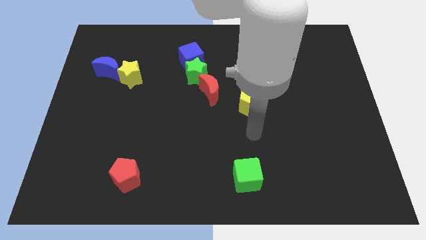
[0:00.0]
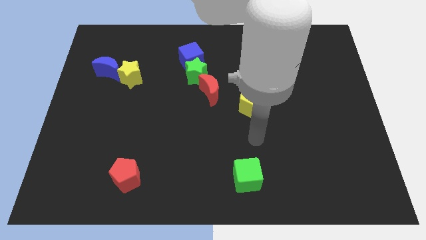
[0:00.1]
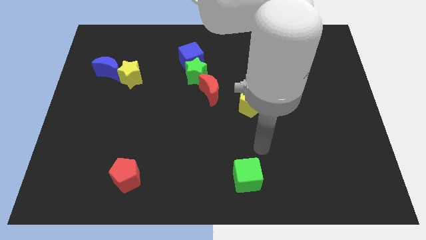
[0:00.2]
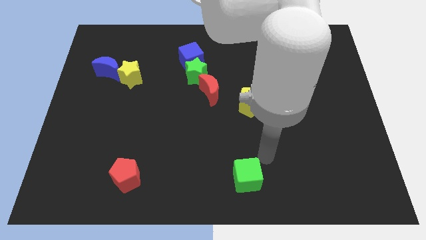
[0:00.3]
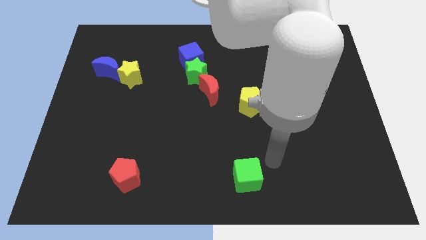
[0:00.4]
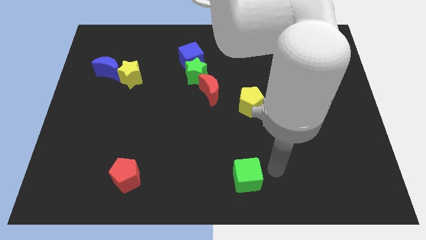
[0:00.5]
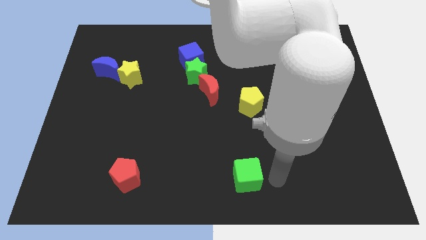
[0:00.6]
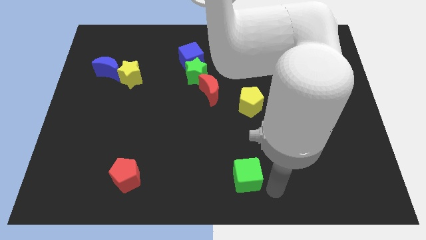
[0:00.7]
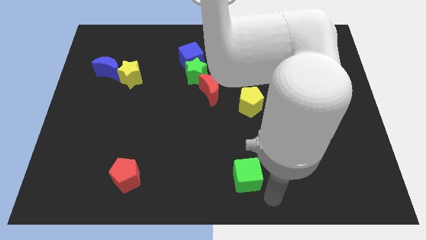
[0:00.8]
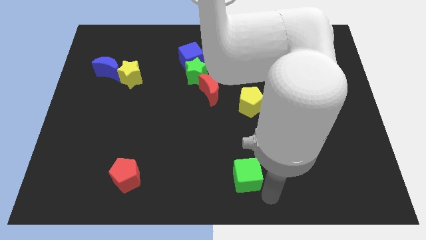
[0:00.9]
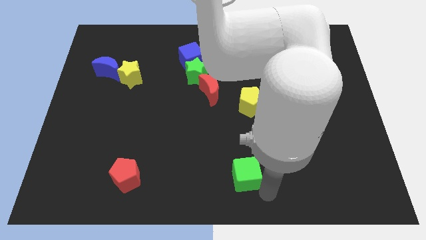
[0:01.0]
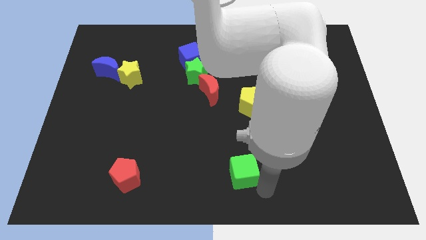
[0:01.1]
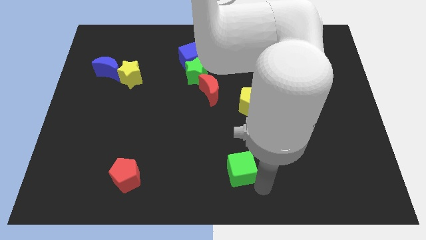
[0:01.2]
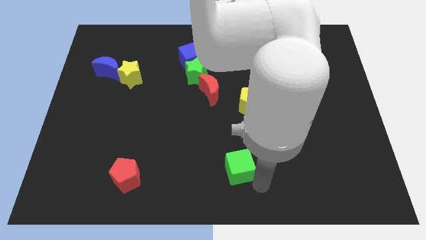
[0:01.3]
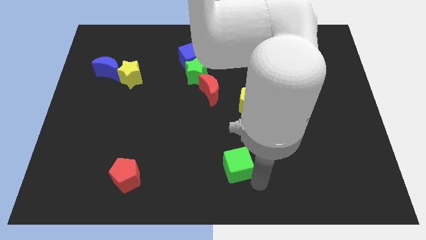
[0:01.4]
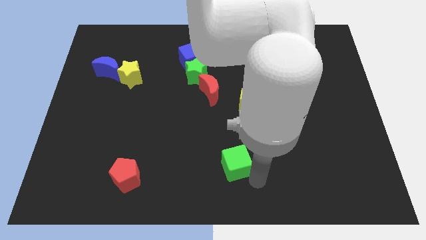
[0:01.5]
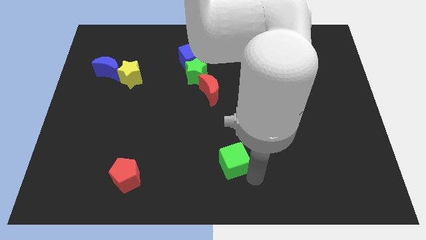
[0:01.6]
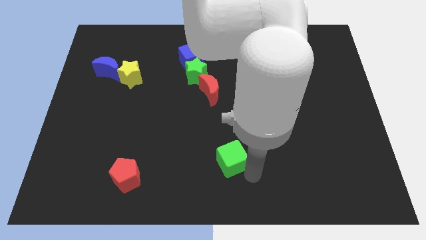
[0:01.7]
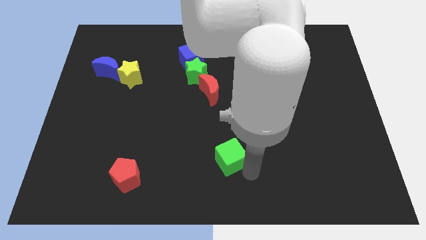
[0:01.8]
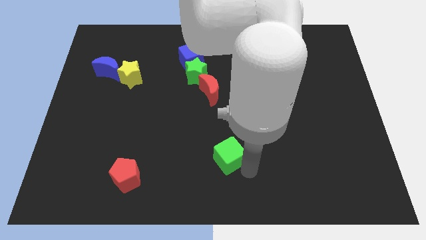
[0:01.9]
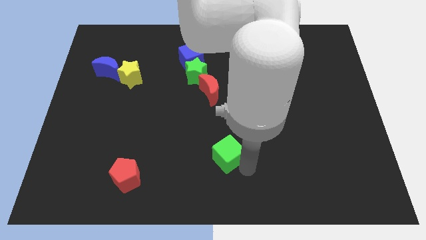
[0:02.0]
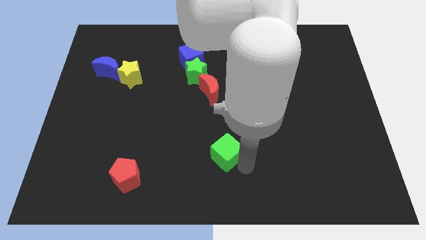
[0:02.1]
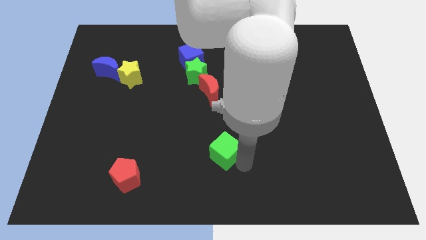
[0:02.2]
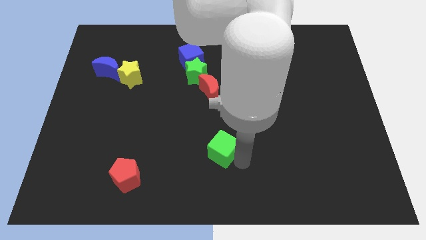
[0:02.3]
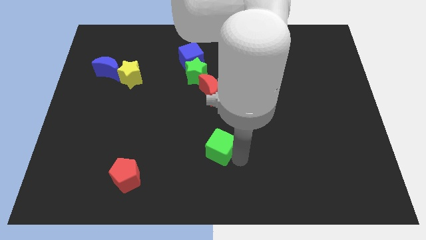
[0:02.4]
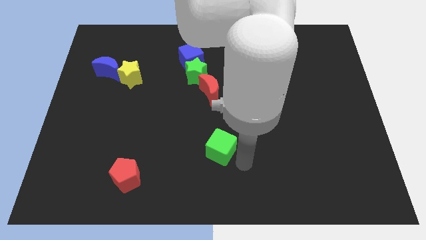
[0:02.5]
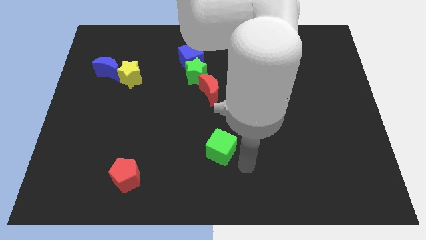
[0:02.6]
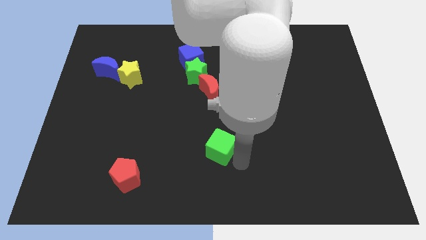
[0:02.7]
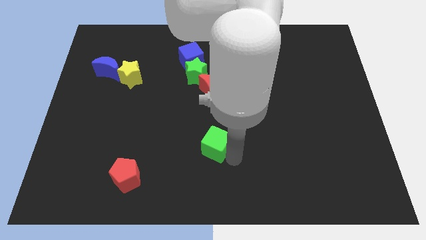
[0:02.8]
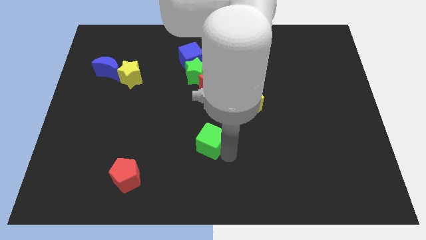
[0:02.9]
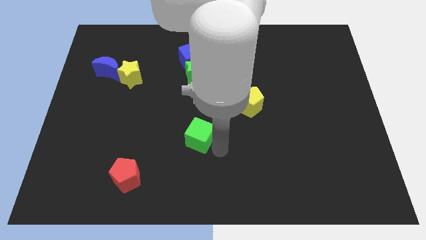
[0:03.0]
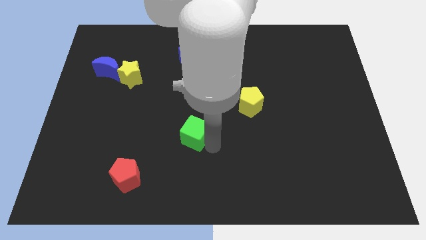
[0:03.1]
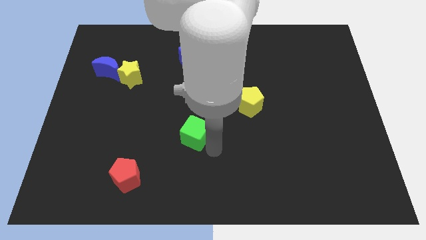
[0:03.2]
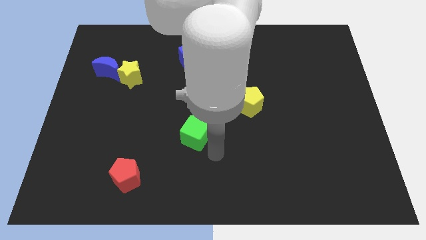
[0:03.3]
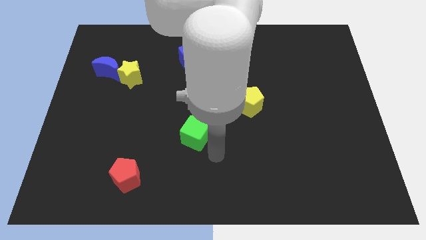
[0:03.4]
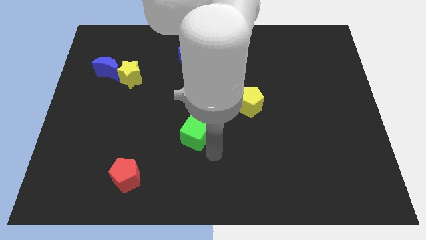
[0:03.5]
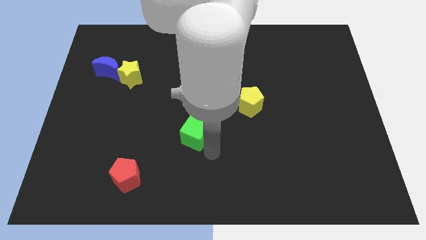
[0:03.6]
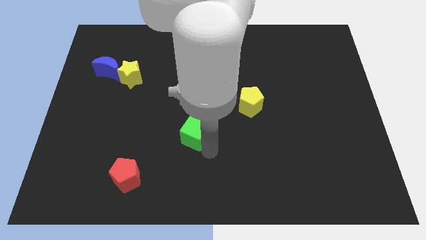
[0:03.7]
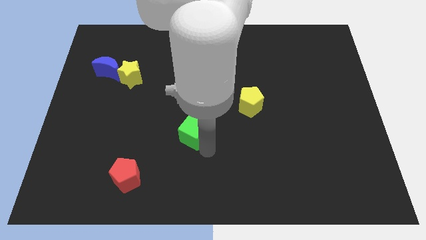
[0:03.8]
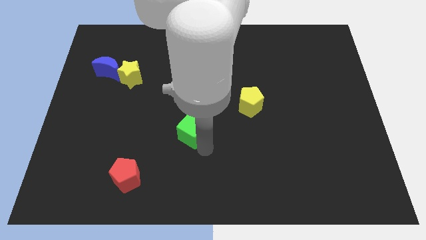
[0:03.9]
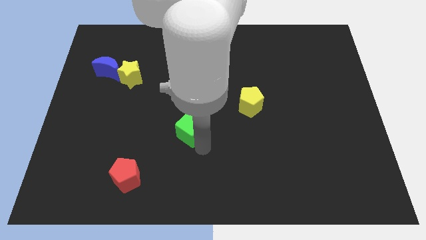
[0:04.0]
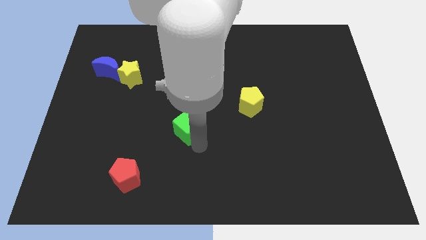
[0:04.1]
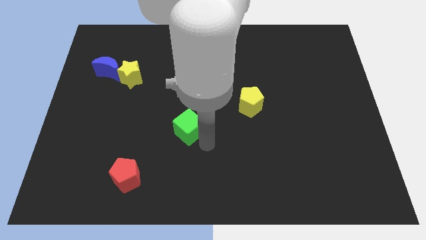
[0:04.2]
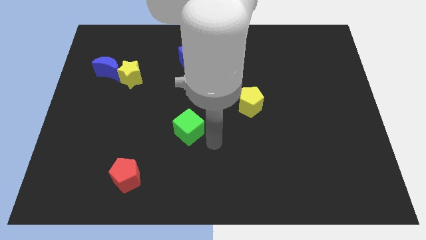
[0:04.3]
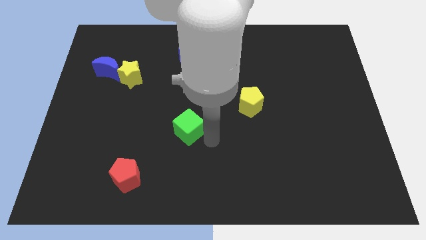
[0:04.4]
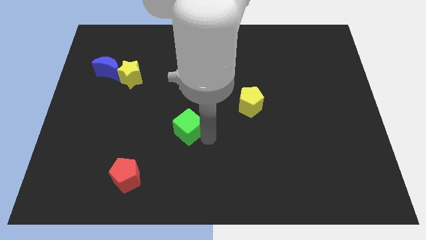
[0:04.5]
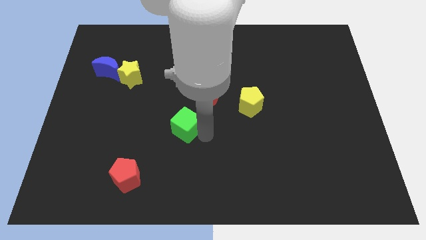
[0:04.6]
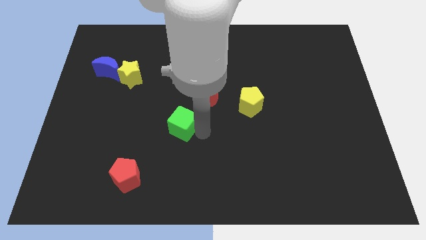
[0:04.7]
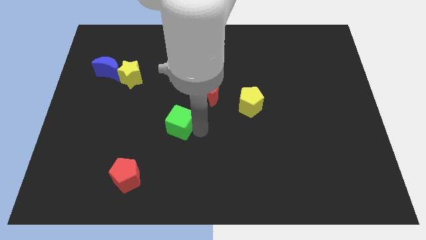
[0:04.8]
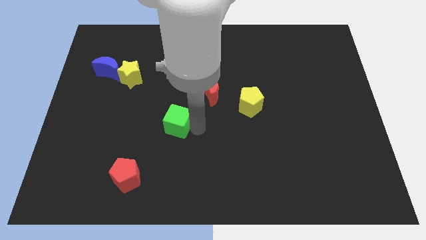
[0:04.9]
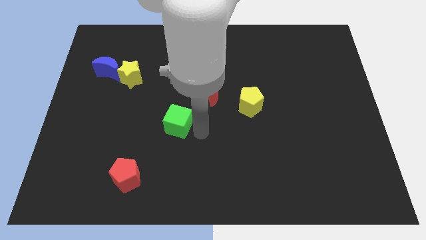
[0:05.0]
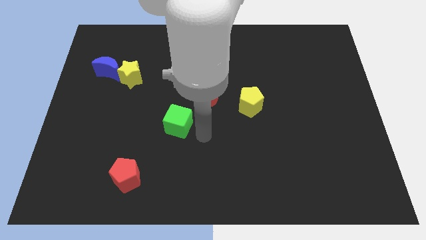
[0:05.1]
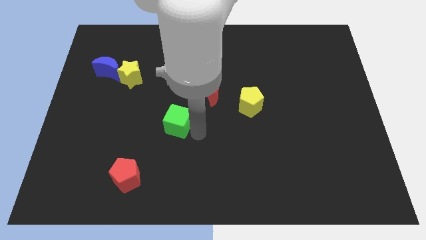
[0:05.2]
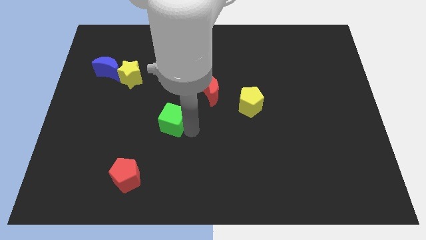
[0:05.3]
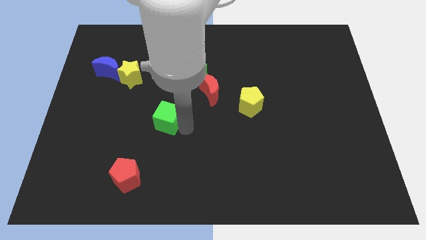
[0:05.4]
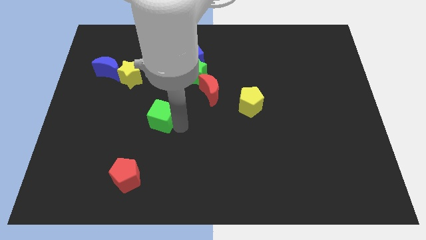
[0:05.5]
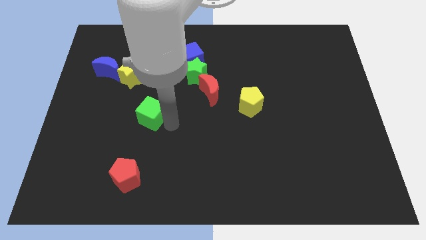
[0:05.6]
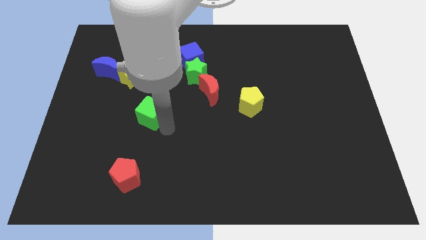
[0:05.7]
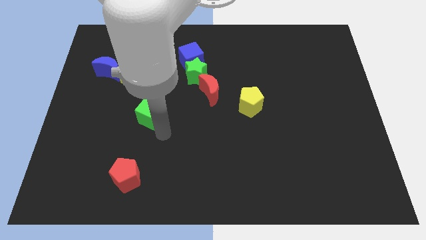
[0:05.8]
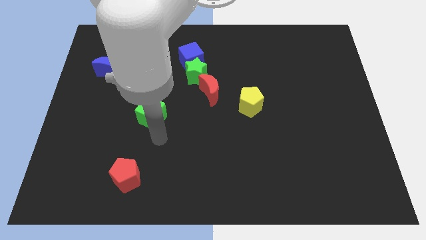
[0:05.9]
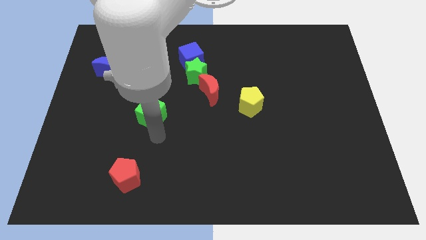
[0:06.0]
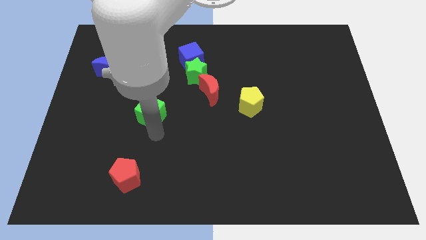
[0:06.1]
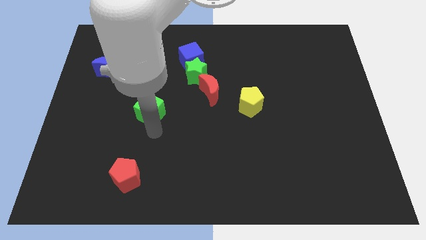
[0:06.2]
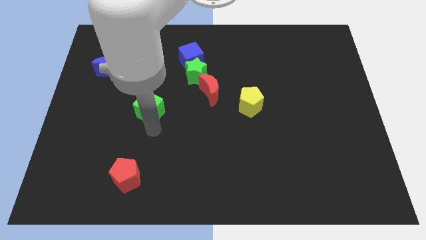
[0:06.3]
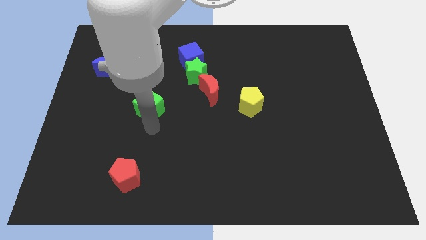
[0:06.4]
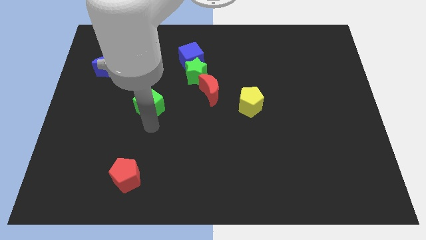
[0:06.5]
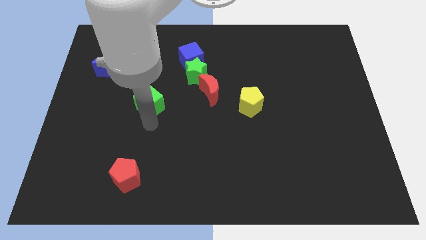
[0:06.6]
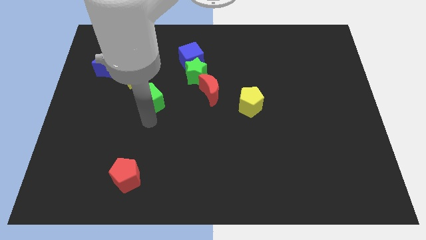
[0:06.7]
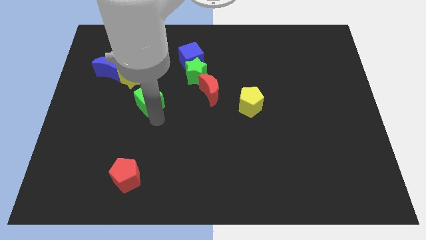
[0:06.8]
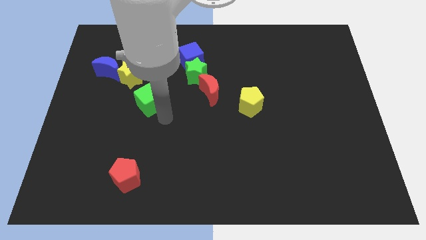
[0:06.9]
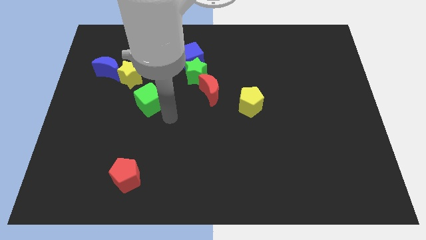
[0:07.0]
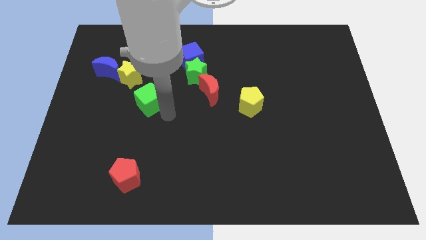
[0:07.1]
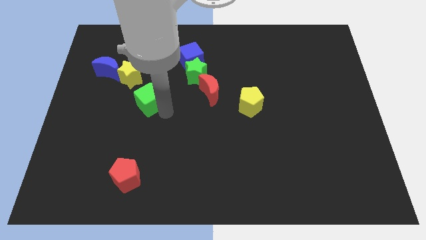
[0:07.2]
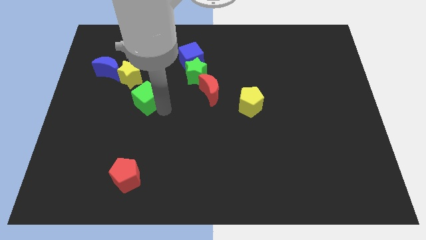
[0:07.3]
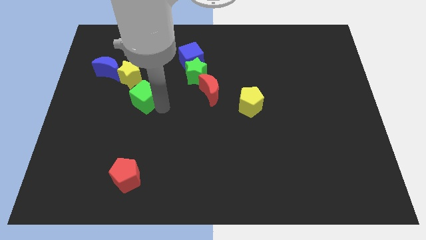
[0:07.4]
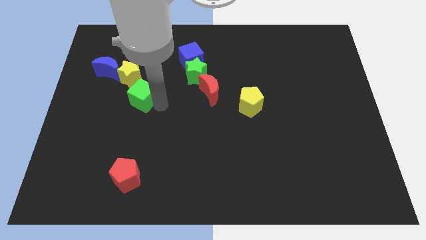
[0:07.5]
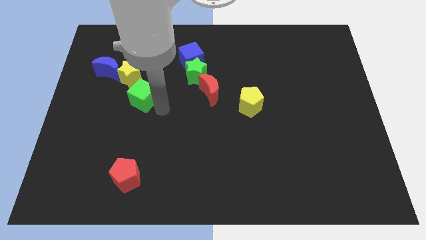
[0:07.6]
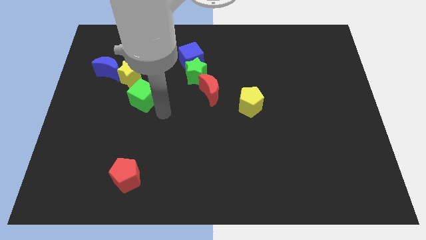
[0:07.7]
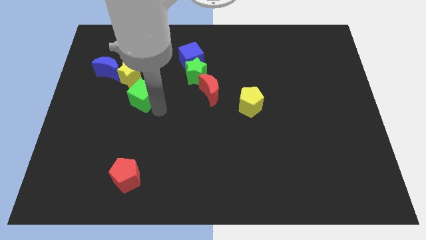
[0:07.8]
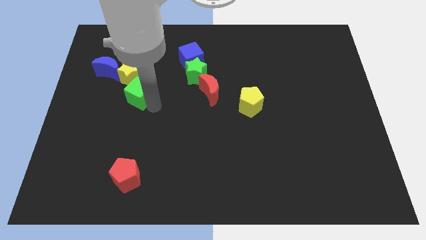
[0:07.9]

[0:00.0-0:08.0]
slide the green cube to the bottom right side of the blue moon
